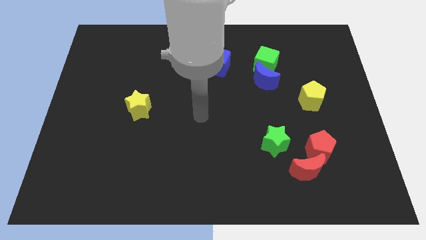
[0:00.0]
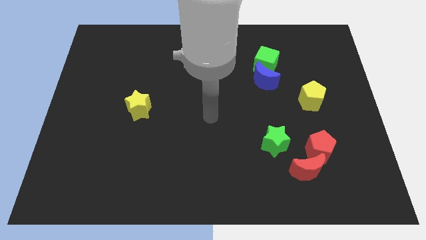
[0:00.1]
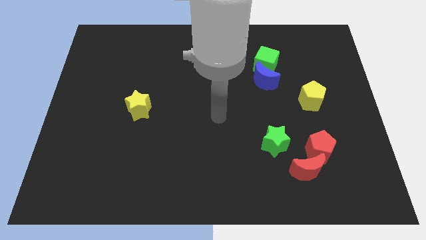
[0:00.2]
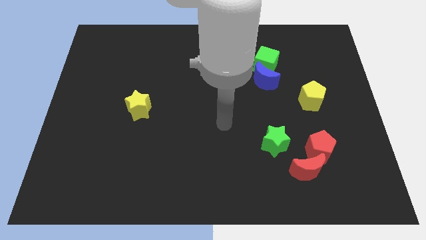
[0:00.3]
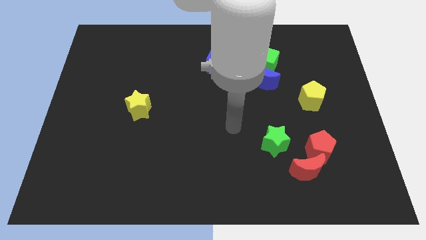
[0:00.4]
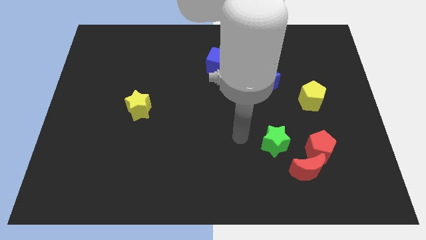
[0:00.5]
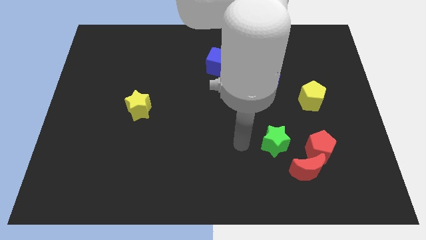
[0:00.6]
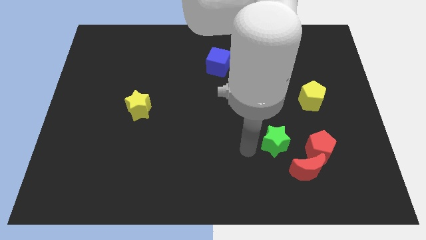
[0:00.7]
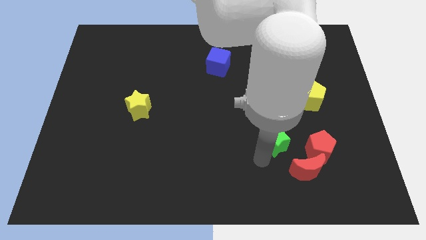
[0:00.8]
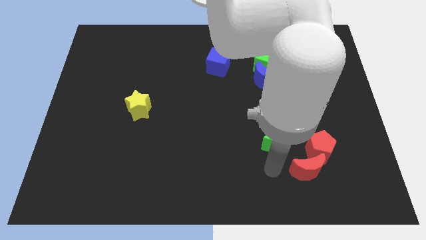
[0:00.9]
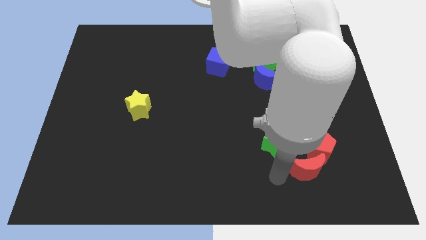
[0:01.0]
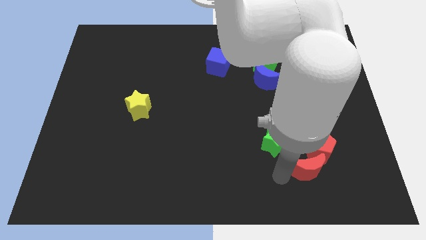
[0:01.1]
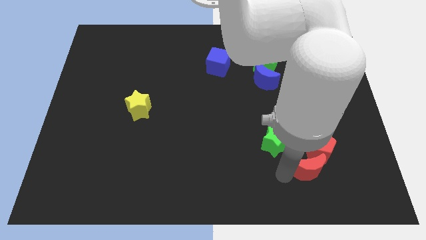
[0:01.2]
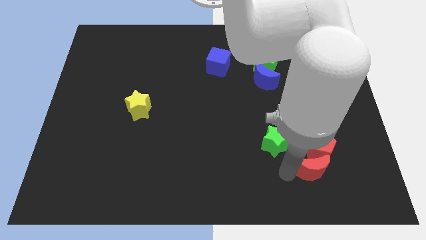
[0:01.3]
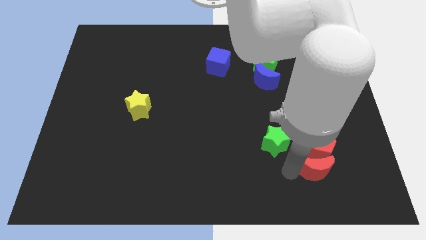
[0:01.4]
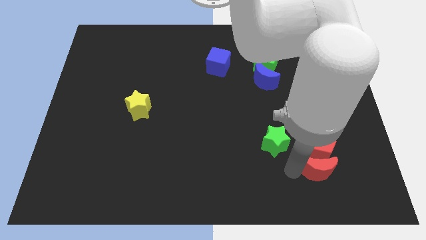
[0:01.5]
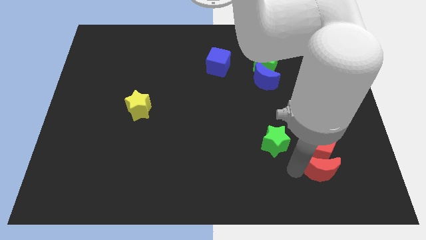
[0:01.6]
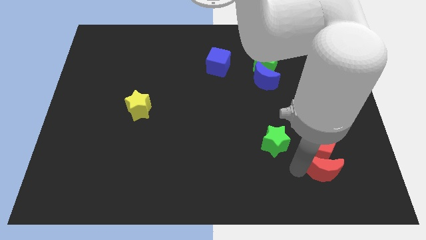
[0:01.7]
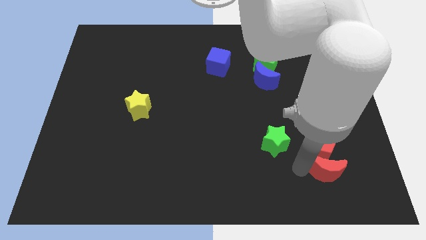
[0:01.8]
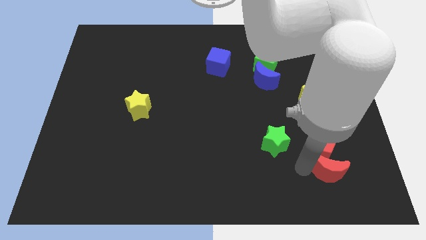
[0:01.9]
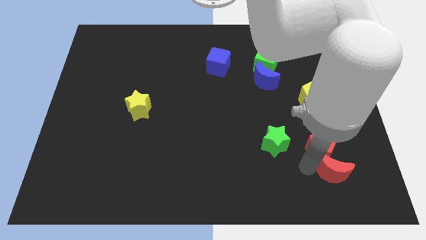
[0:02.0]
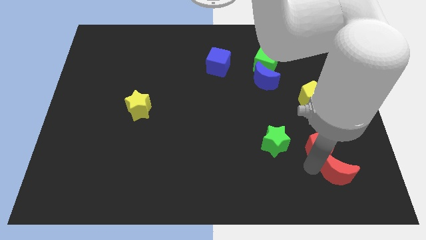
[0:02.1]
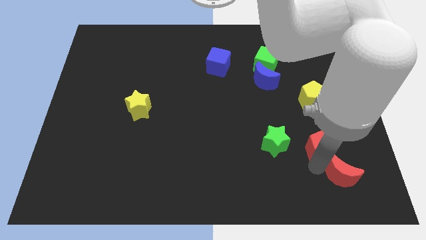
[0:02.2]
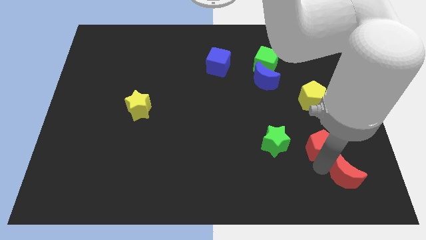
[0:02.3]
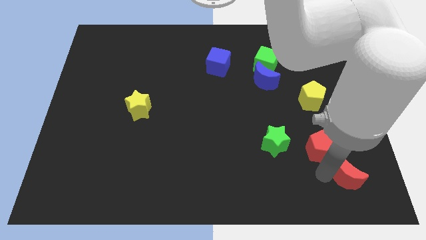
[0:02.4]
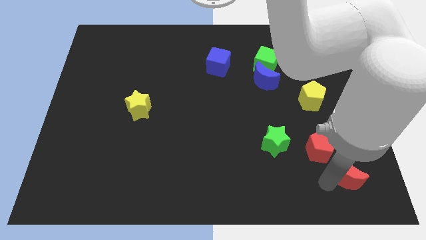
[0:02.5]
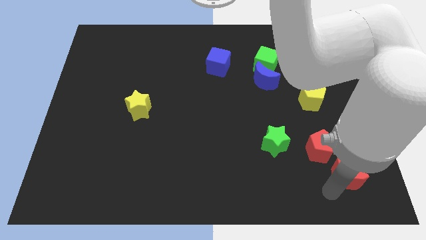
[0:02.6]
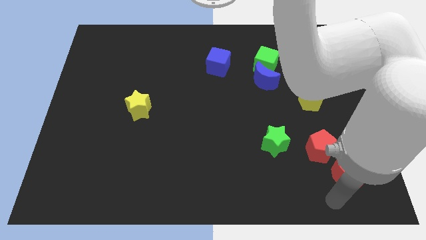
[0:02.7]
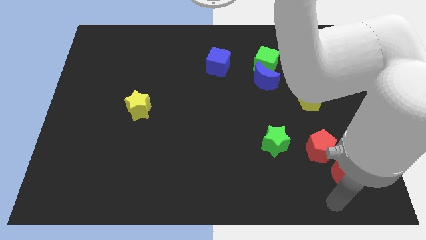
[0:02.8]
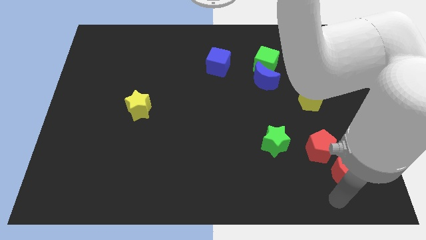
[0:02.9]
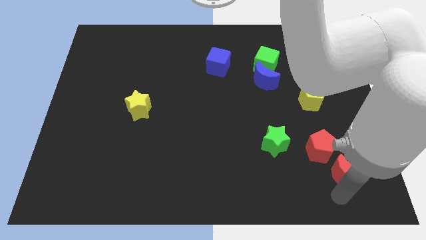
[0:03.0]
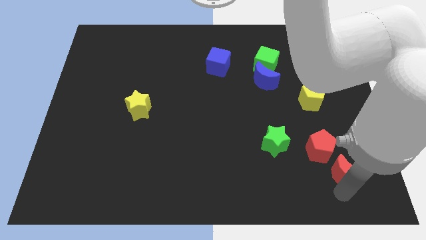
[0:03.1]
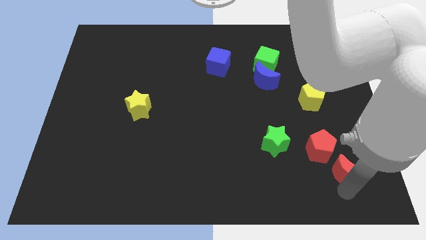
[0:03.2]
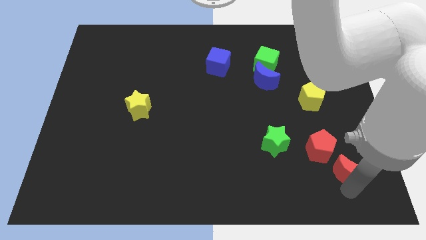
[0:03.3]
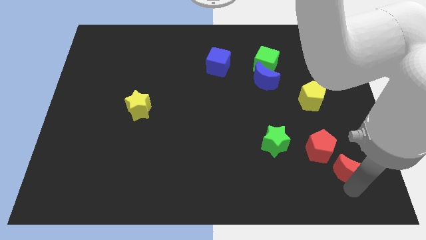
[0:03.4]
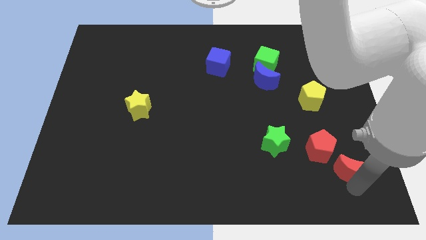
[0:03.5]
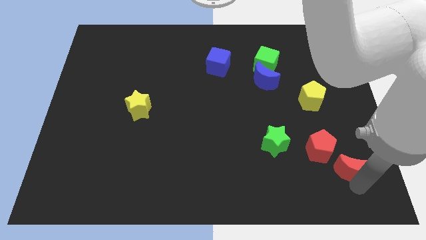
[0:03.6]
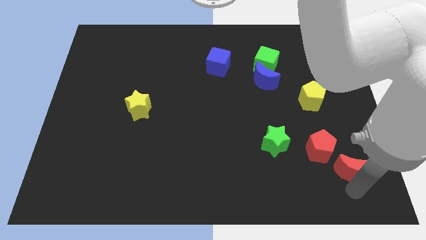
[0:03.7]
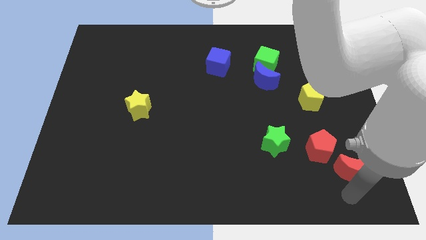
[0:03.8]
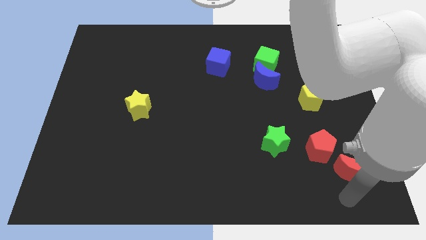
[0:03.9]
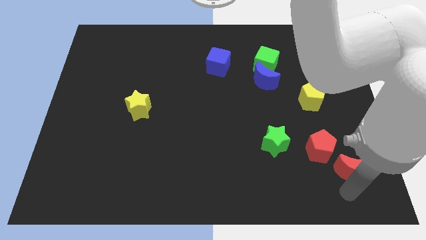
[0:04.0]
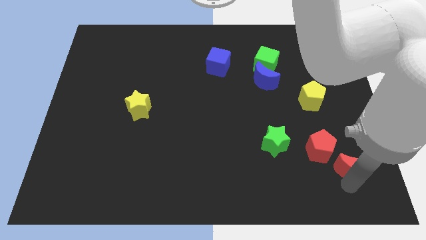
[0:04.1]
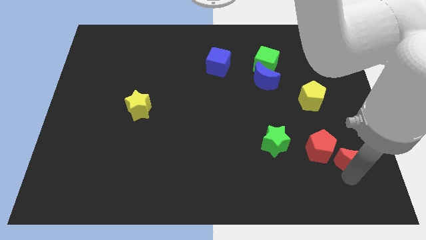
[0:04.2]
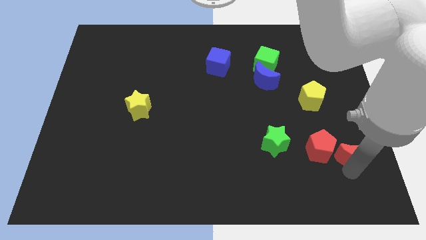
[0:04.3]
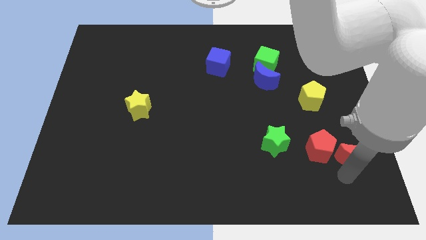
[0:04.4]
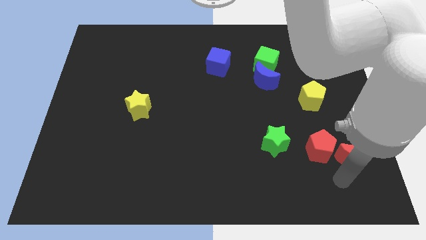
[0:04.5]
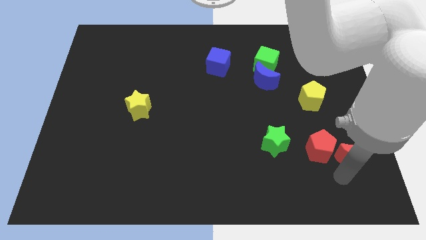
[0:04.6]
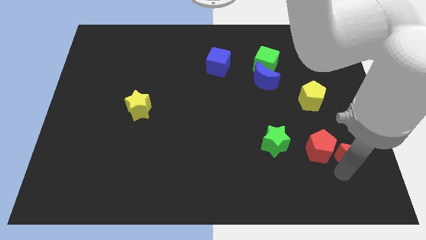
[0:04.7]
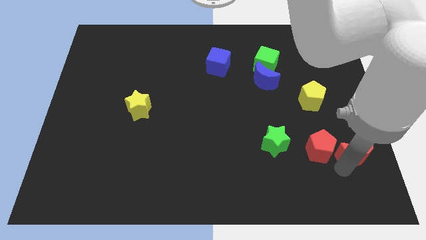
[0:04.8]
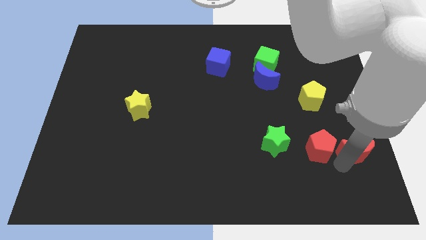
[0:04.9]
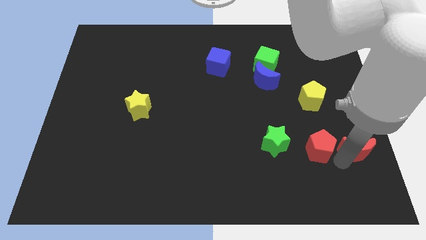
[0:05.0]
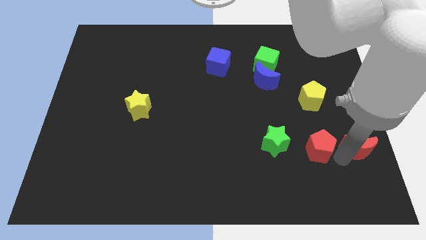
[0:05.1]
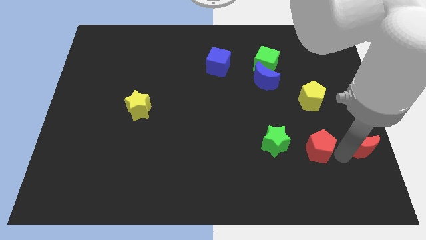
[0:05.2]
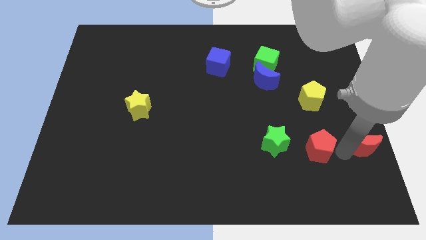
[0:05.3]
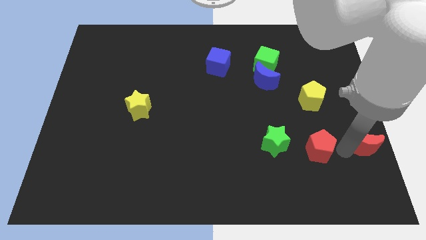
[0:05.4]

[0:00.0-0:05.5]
slide the red moon to the right side

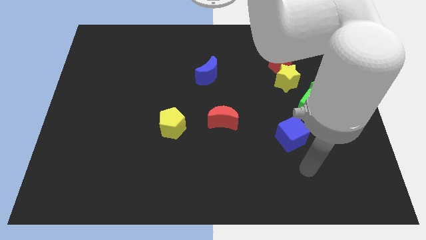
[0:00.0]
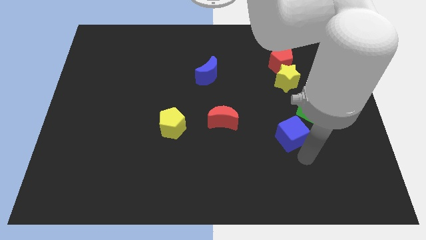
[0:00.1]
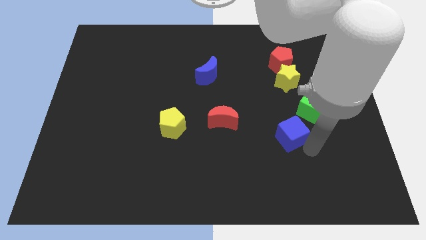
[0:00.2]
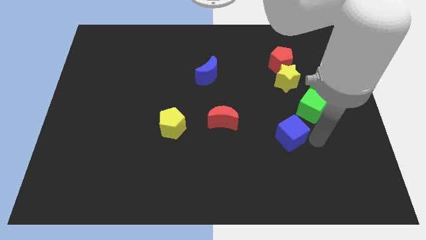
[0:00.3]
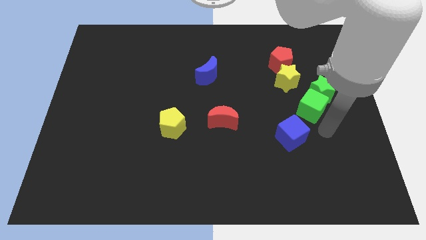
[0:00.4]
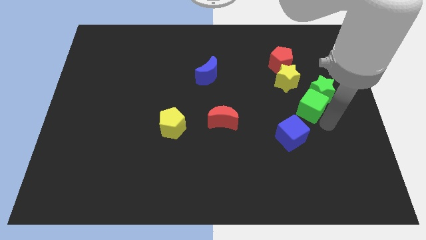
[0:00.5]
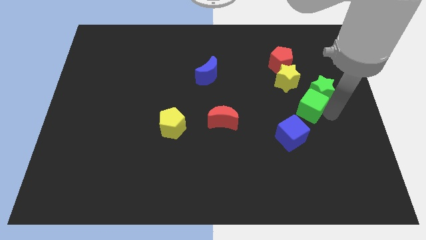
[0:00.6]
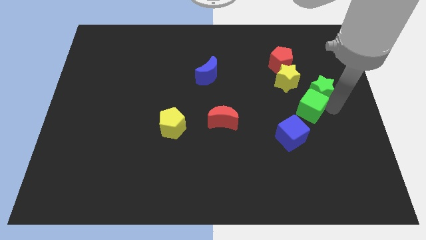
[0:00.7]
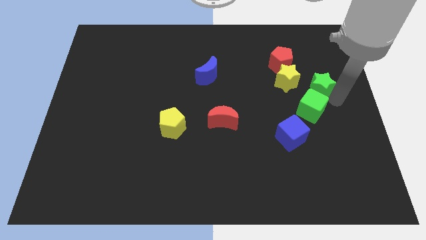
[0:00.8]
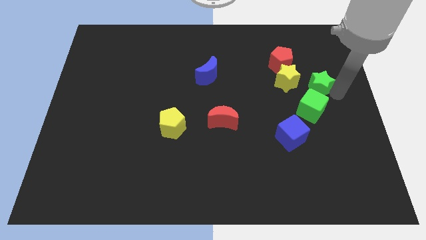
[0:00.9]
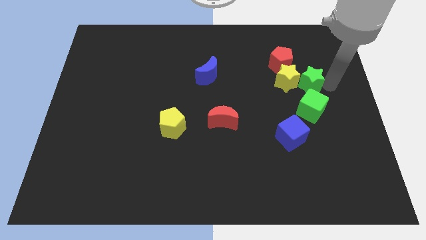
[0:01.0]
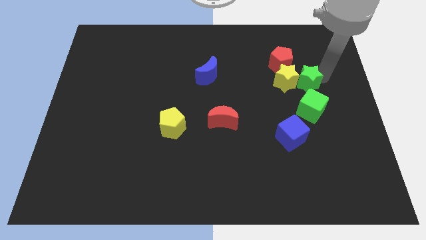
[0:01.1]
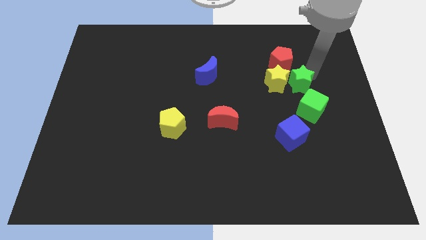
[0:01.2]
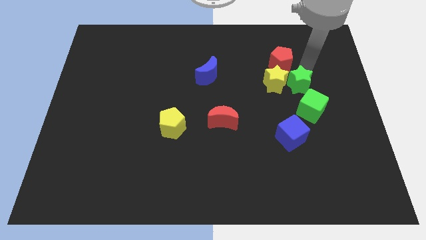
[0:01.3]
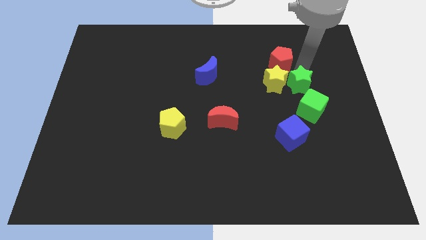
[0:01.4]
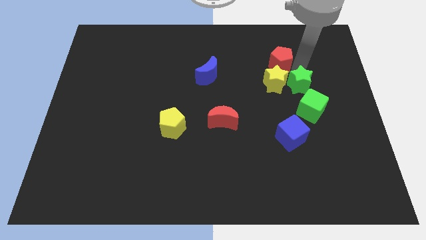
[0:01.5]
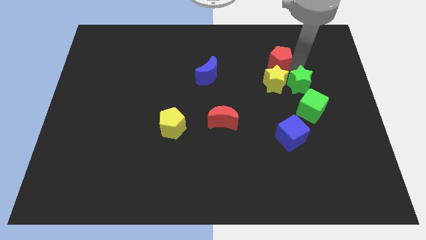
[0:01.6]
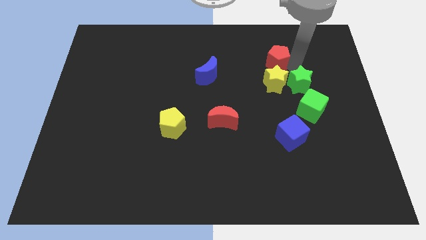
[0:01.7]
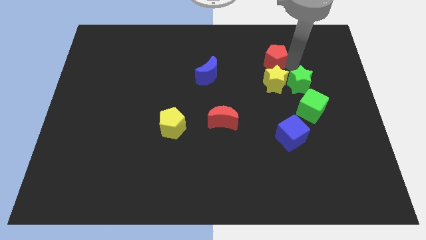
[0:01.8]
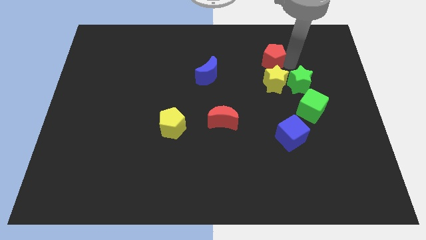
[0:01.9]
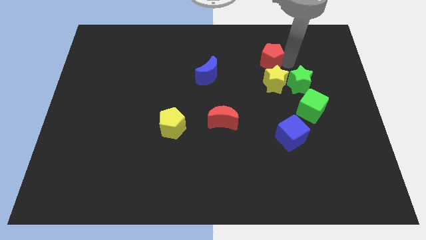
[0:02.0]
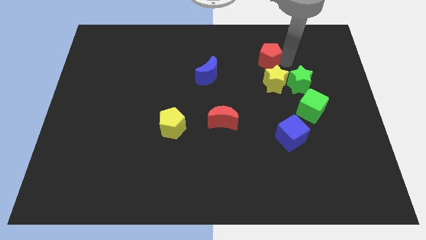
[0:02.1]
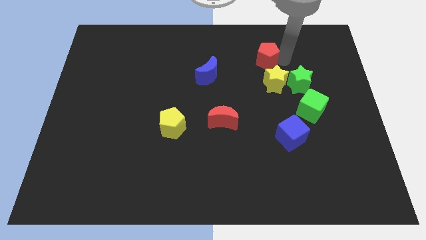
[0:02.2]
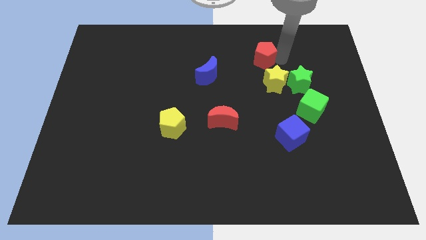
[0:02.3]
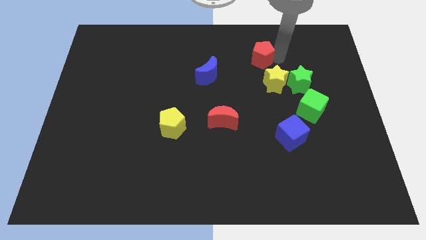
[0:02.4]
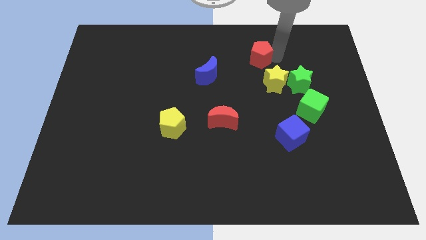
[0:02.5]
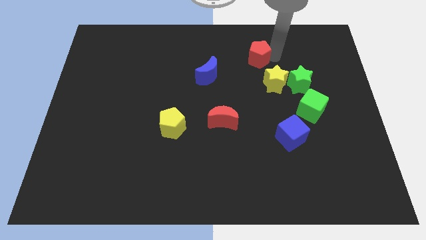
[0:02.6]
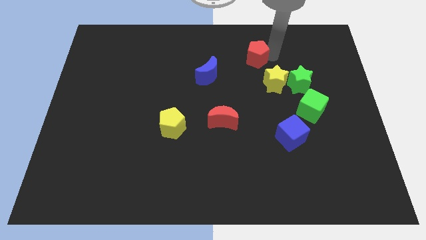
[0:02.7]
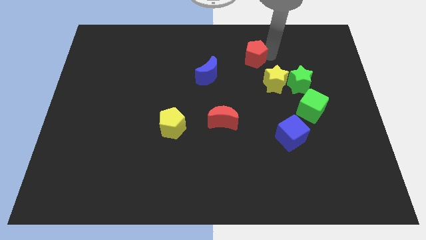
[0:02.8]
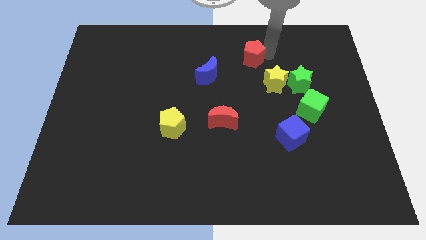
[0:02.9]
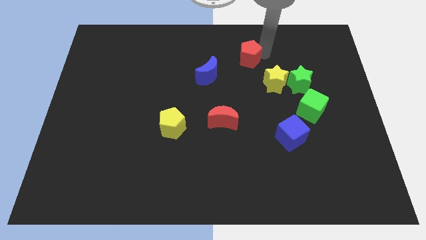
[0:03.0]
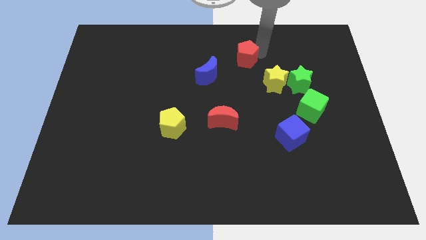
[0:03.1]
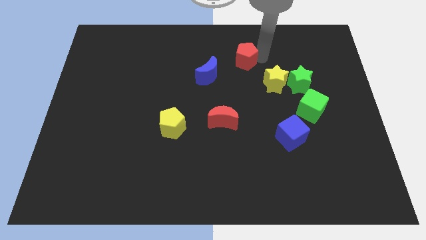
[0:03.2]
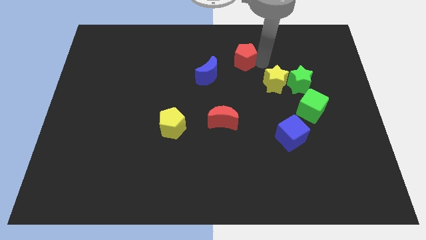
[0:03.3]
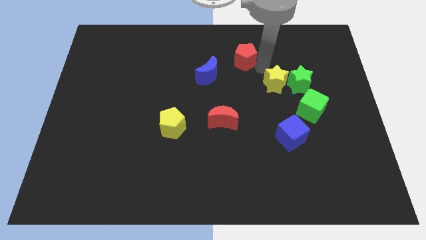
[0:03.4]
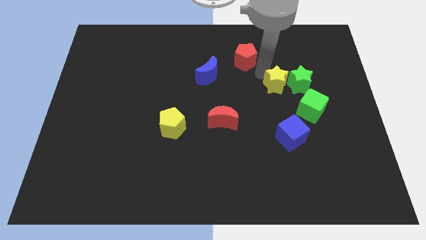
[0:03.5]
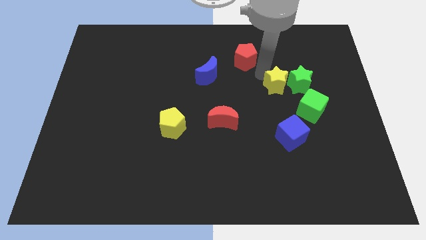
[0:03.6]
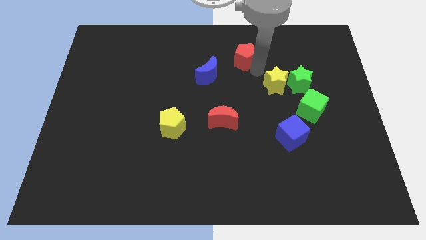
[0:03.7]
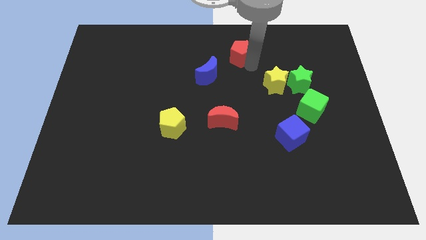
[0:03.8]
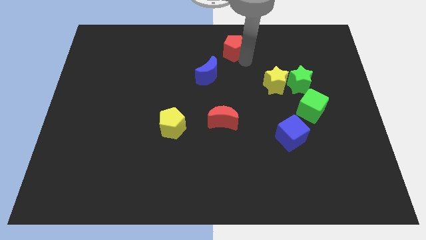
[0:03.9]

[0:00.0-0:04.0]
push the red pentagon to the top side
